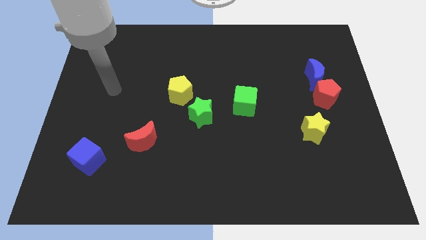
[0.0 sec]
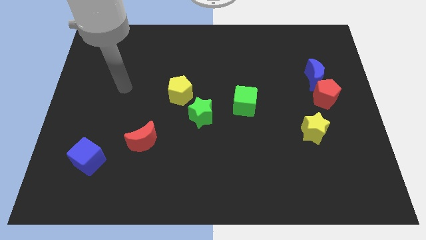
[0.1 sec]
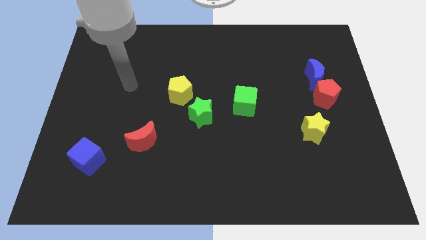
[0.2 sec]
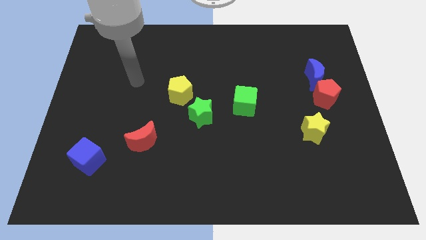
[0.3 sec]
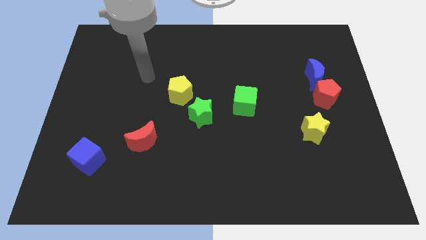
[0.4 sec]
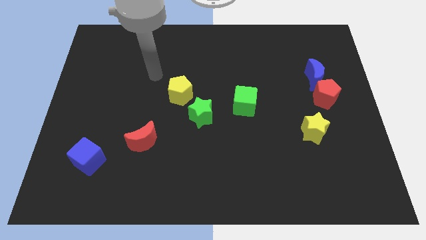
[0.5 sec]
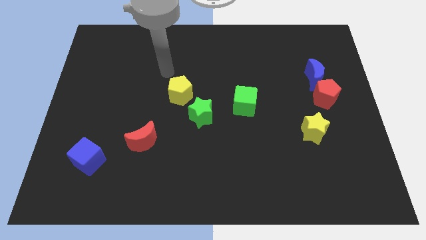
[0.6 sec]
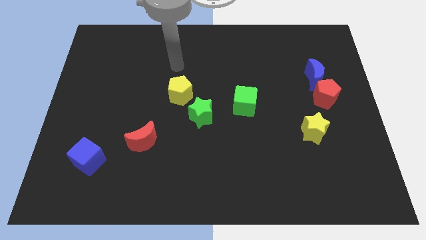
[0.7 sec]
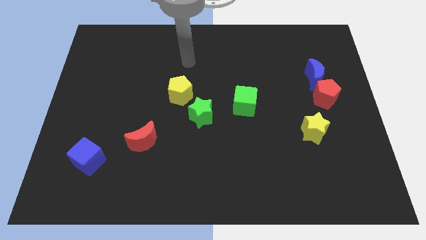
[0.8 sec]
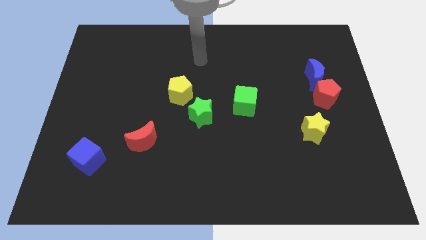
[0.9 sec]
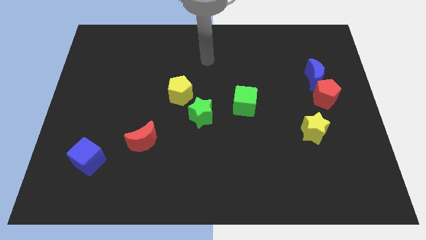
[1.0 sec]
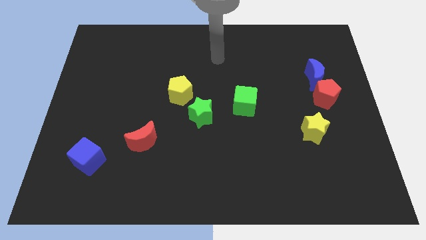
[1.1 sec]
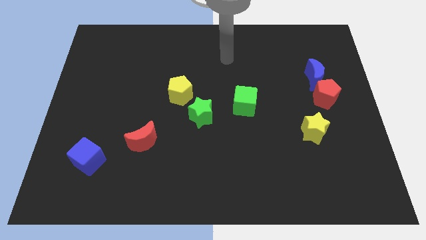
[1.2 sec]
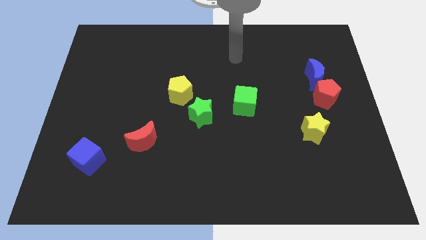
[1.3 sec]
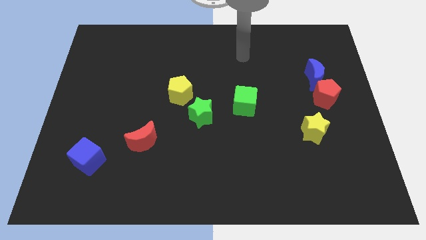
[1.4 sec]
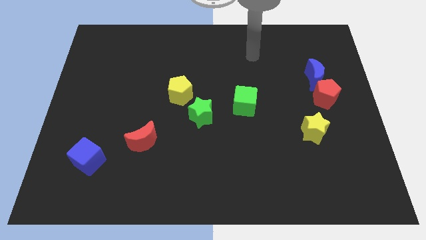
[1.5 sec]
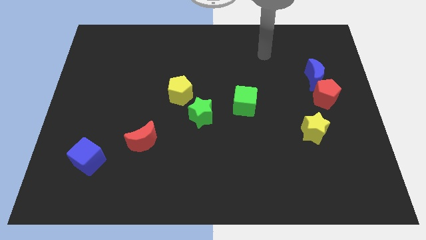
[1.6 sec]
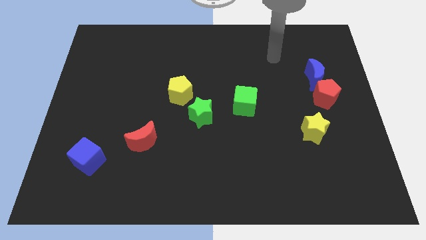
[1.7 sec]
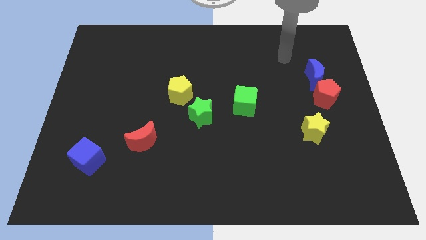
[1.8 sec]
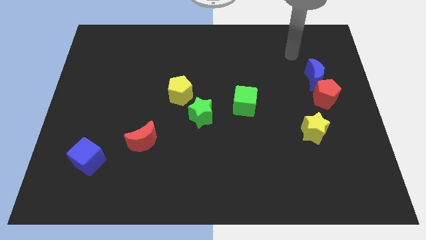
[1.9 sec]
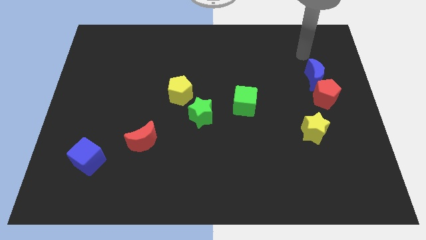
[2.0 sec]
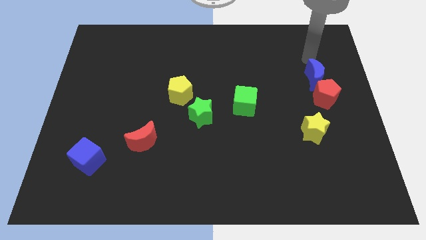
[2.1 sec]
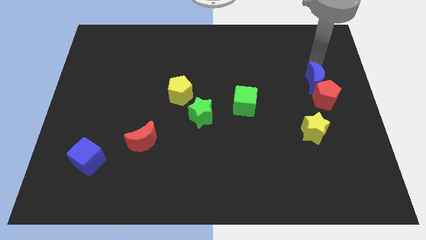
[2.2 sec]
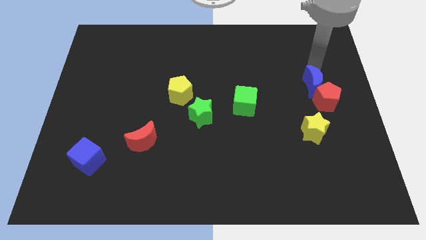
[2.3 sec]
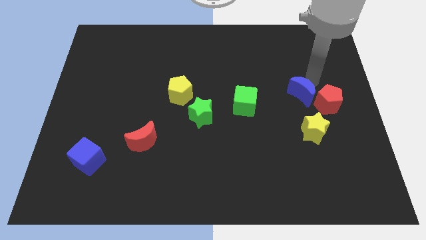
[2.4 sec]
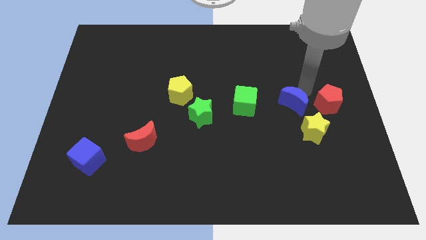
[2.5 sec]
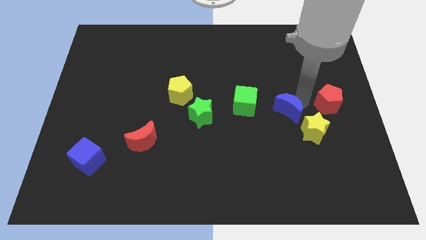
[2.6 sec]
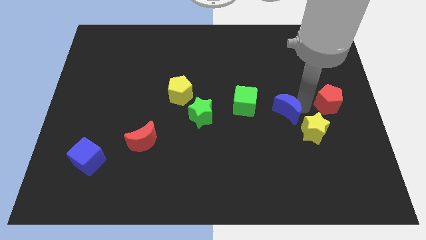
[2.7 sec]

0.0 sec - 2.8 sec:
pull the red pentagon apart from the blue moon

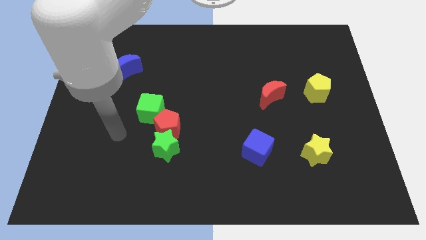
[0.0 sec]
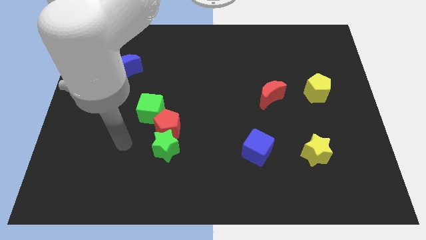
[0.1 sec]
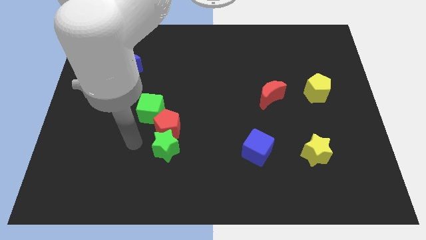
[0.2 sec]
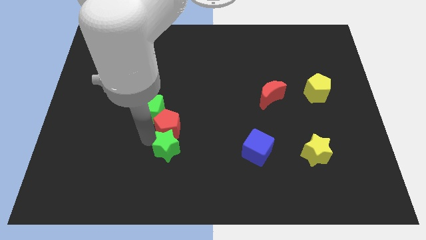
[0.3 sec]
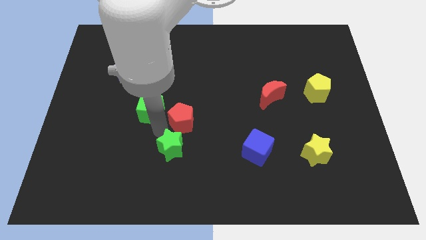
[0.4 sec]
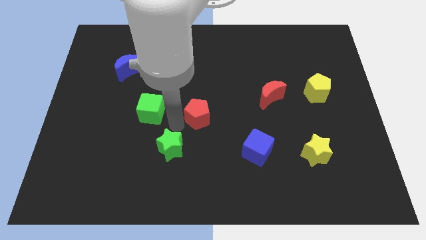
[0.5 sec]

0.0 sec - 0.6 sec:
move the green star away from the red pentagon

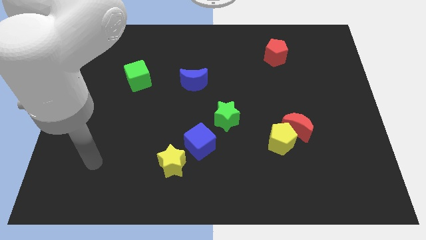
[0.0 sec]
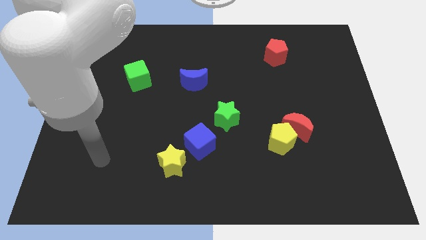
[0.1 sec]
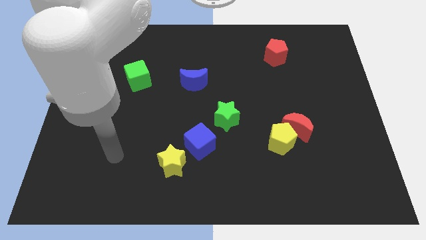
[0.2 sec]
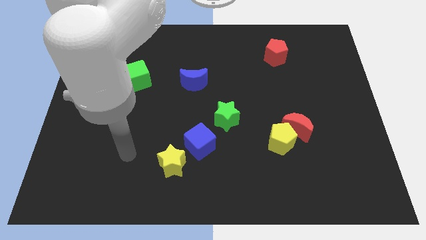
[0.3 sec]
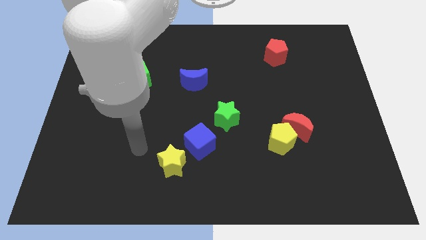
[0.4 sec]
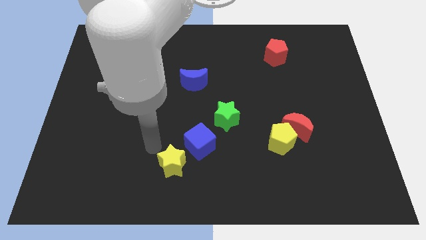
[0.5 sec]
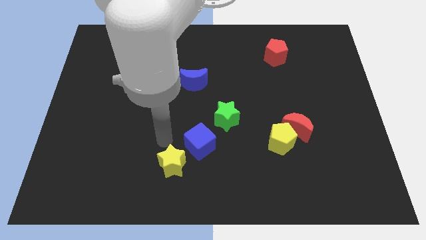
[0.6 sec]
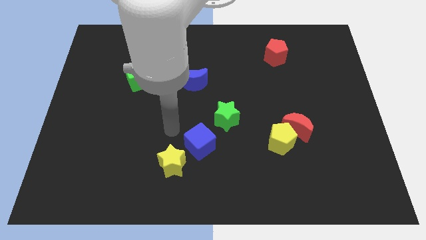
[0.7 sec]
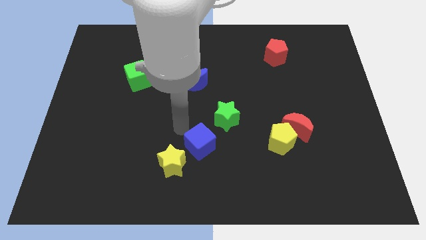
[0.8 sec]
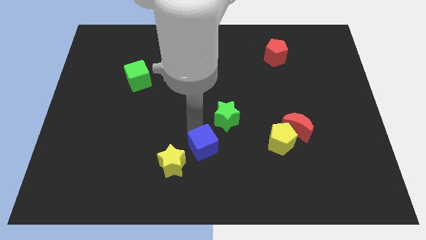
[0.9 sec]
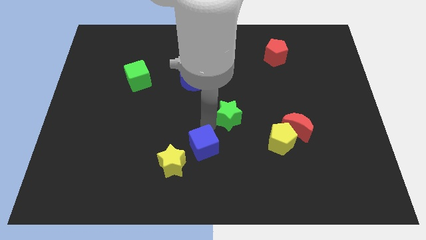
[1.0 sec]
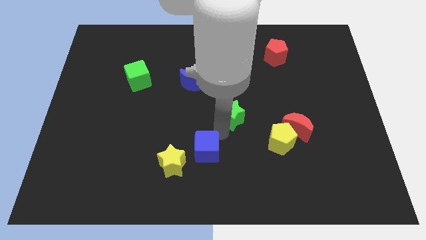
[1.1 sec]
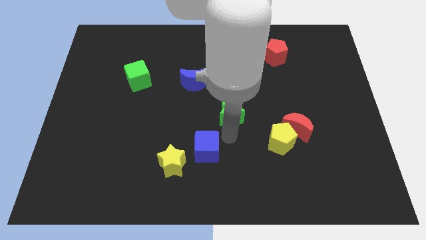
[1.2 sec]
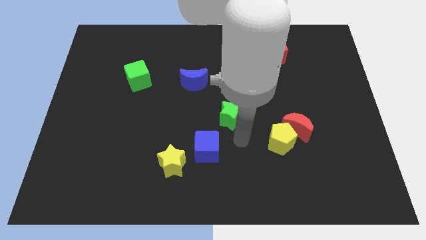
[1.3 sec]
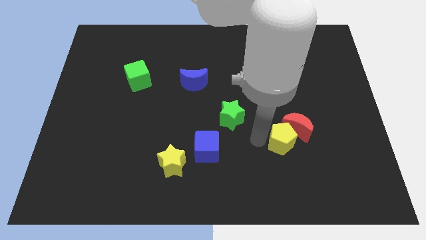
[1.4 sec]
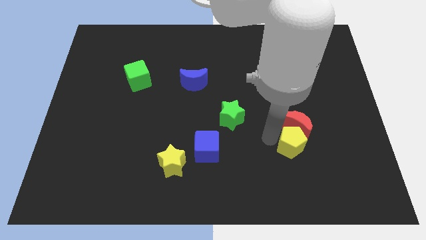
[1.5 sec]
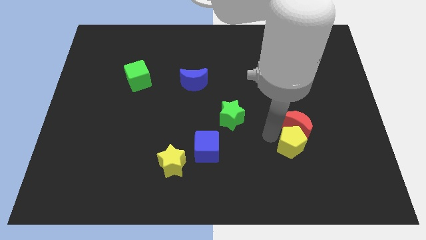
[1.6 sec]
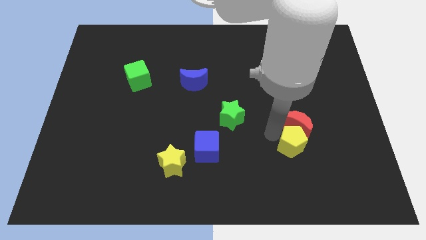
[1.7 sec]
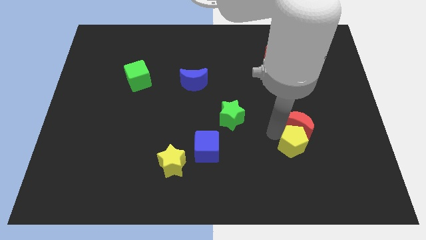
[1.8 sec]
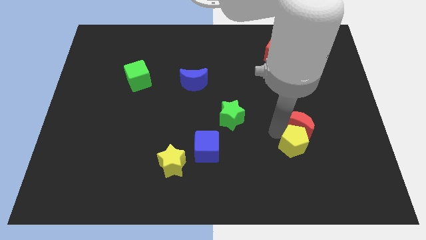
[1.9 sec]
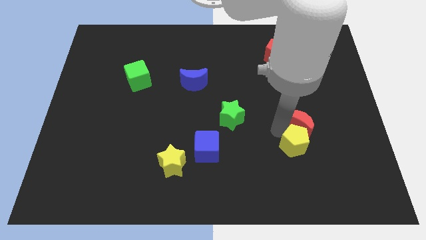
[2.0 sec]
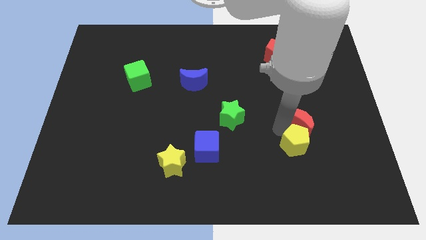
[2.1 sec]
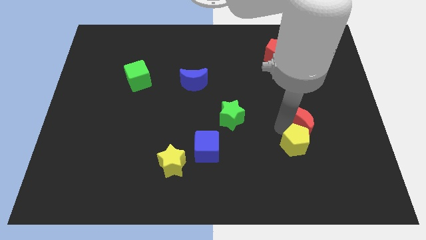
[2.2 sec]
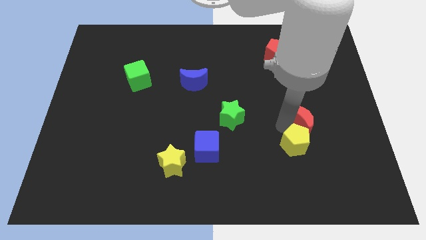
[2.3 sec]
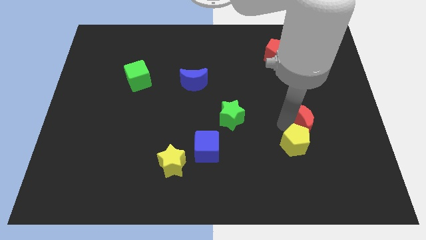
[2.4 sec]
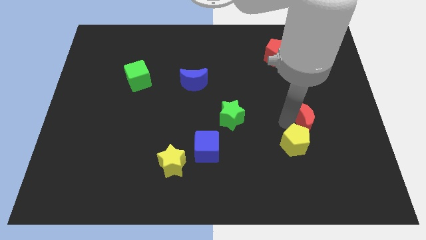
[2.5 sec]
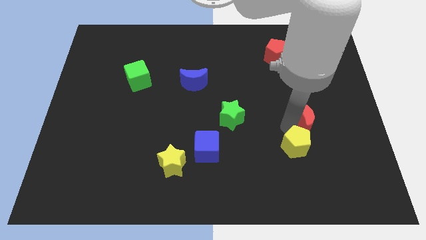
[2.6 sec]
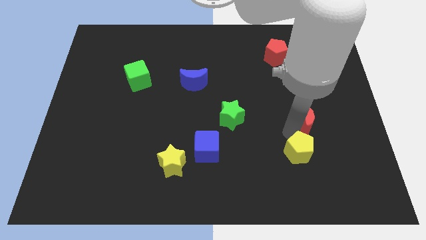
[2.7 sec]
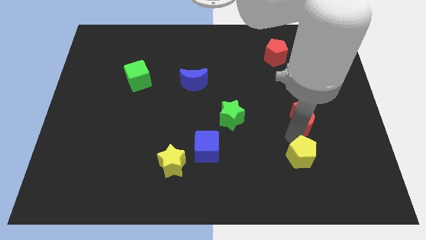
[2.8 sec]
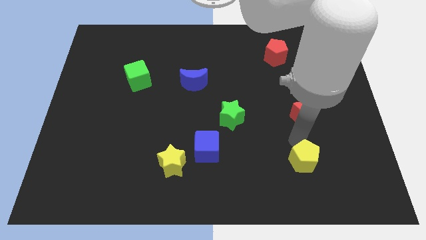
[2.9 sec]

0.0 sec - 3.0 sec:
separate the red moon from the yellow pentagon

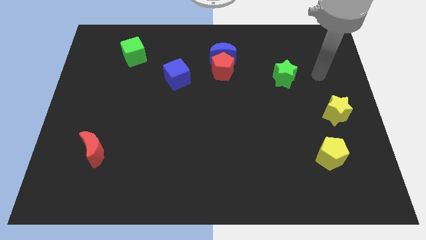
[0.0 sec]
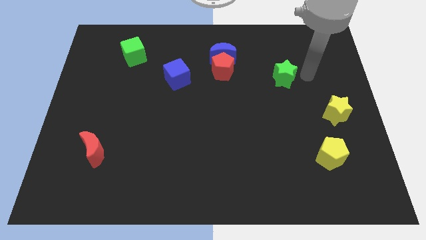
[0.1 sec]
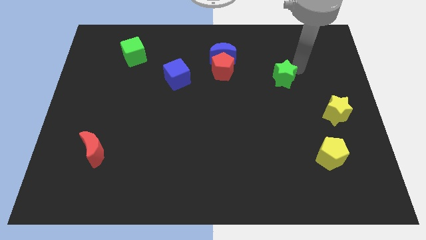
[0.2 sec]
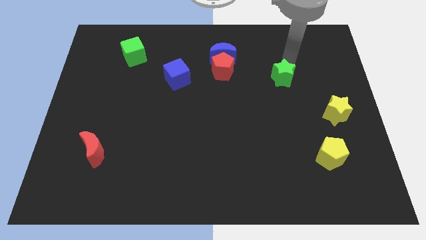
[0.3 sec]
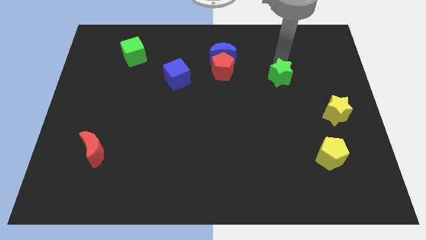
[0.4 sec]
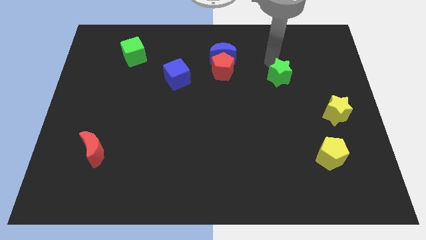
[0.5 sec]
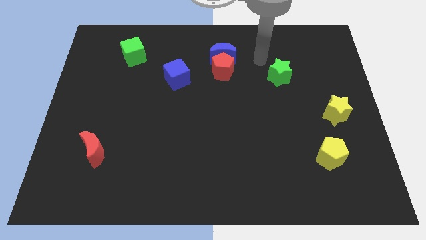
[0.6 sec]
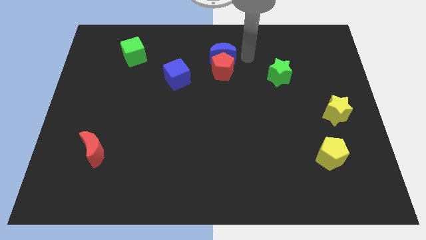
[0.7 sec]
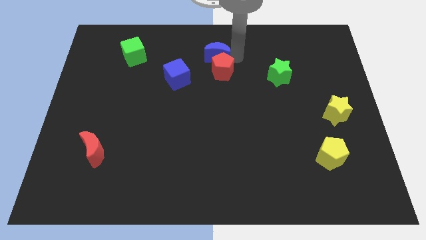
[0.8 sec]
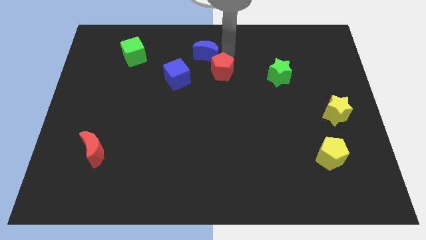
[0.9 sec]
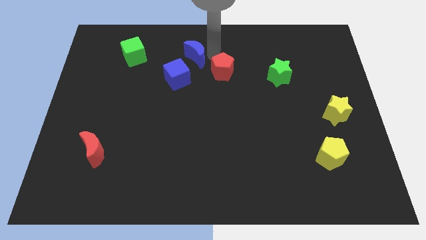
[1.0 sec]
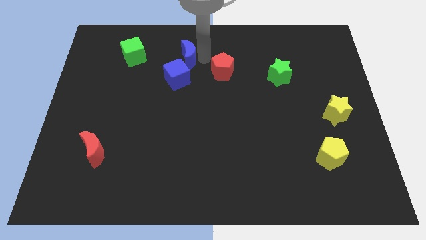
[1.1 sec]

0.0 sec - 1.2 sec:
separate the red pentagon from the blue moon

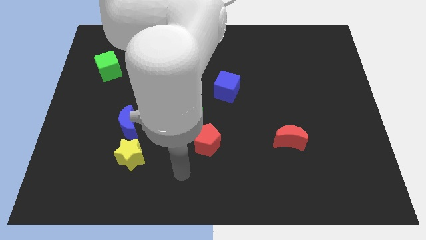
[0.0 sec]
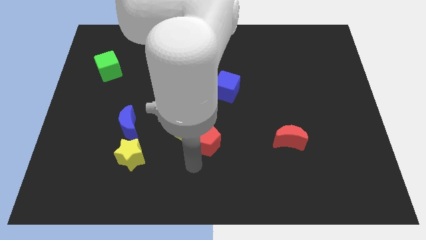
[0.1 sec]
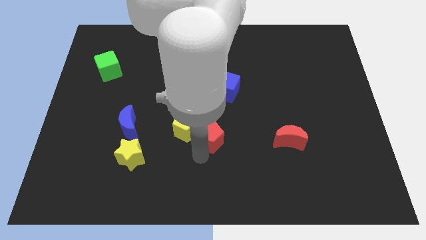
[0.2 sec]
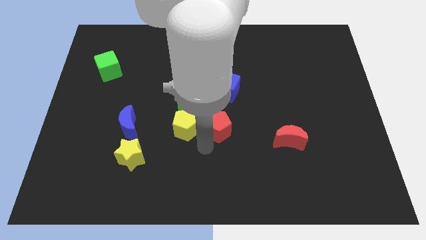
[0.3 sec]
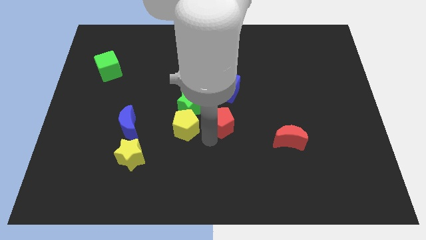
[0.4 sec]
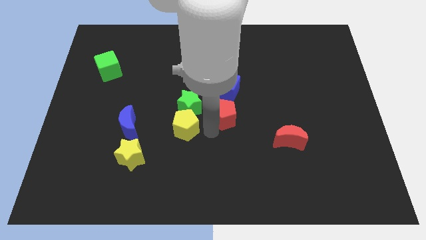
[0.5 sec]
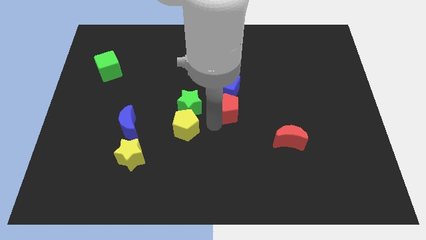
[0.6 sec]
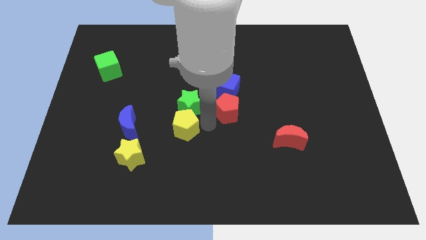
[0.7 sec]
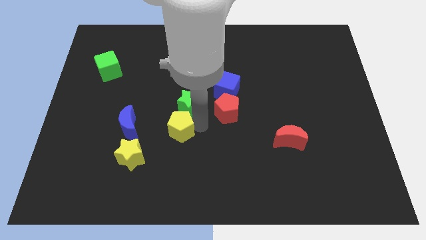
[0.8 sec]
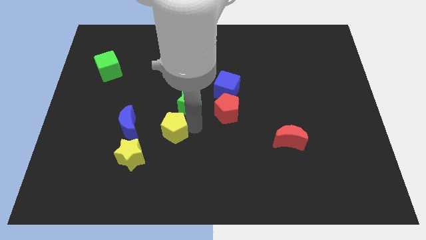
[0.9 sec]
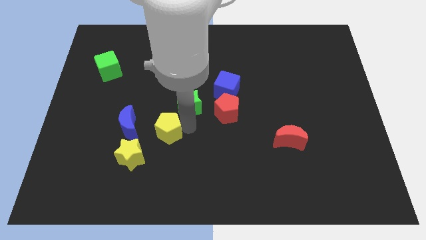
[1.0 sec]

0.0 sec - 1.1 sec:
separate the yellow pentagon from the green star and red pentagon

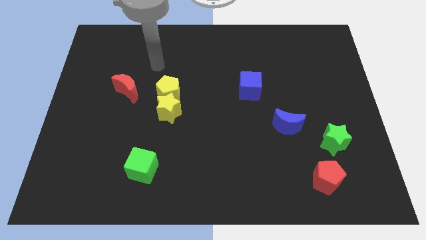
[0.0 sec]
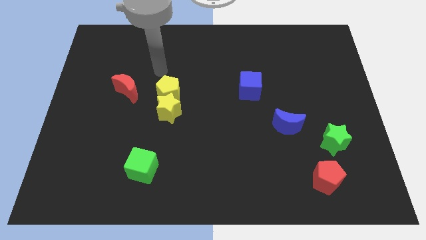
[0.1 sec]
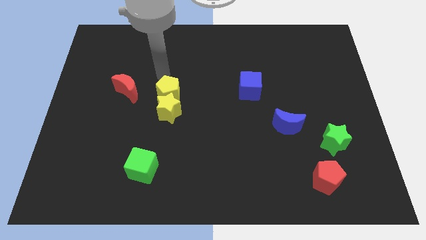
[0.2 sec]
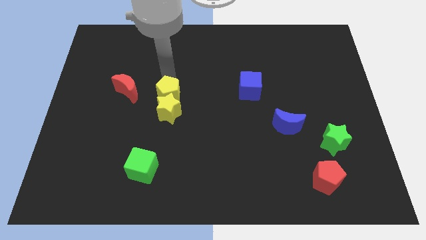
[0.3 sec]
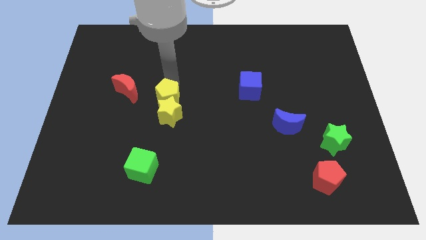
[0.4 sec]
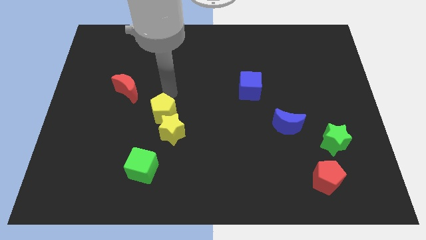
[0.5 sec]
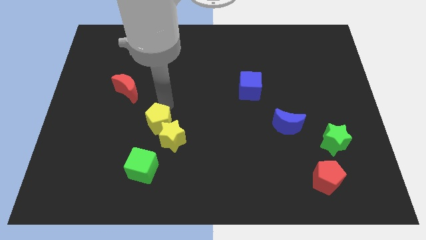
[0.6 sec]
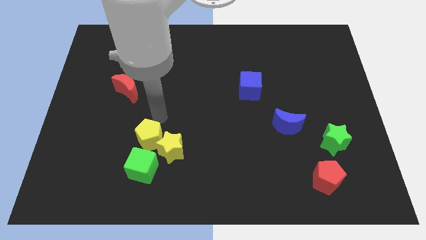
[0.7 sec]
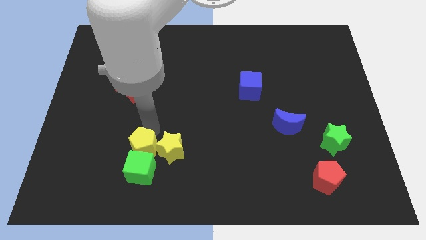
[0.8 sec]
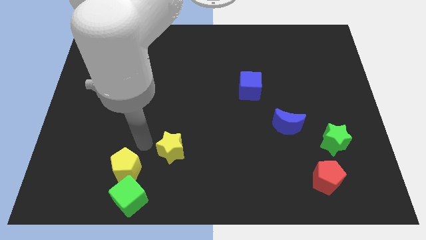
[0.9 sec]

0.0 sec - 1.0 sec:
pull the yellow star apart from the yellow pentagon
